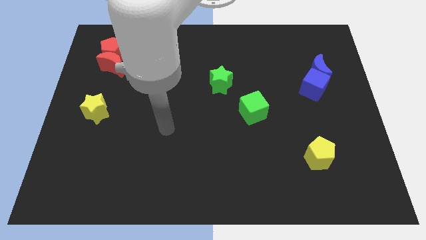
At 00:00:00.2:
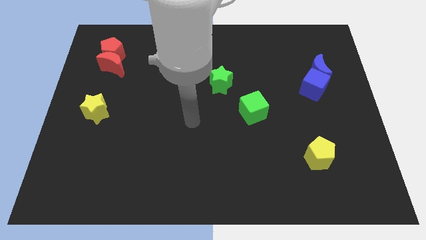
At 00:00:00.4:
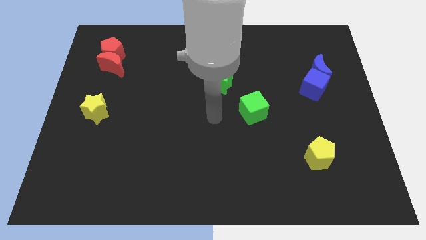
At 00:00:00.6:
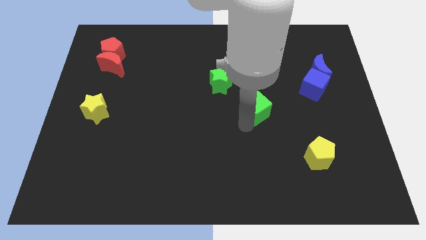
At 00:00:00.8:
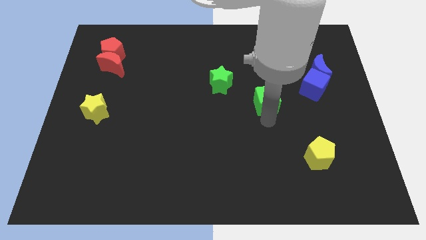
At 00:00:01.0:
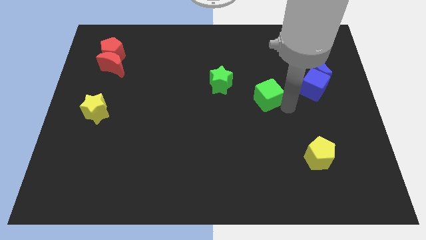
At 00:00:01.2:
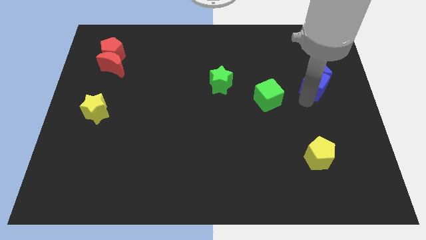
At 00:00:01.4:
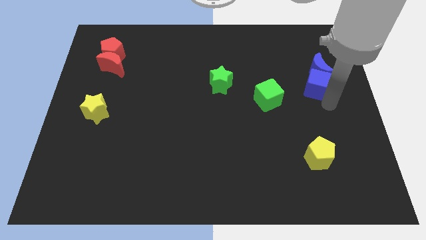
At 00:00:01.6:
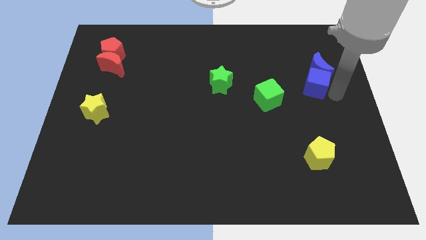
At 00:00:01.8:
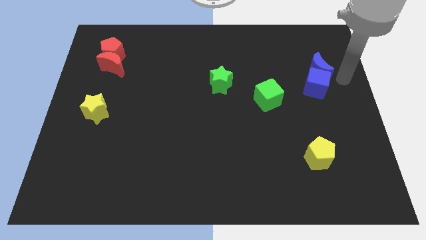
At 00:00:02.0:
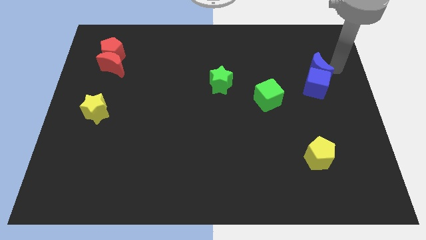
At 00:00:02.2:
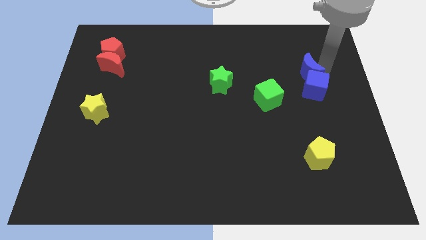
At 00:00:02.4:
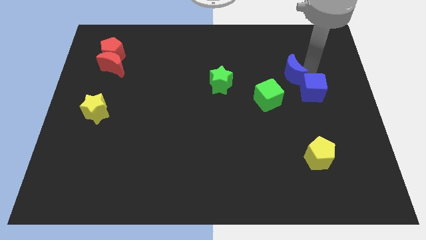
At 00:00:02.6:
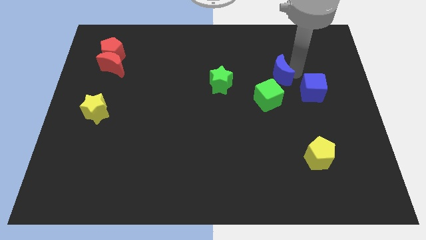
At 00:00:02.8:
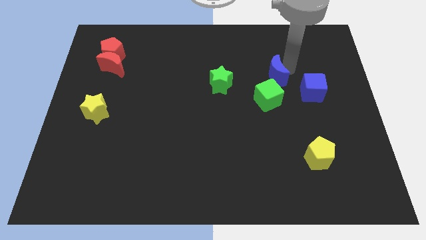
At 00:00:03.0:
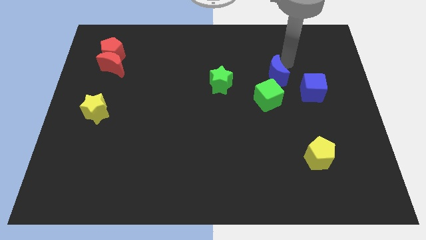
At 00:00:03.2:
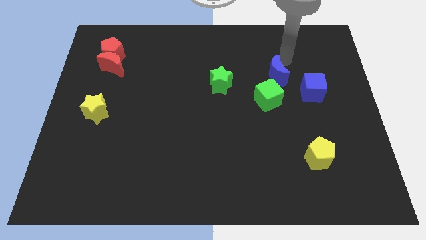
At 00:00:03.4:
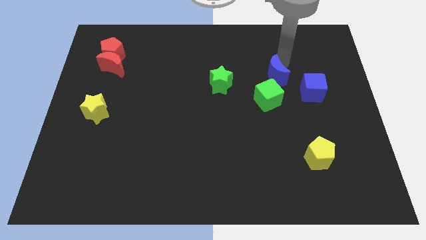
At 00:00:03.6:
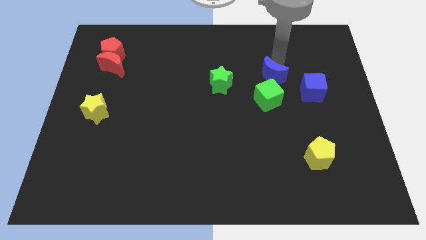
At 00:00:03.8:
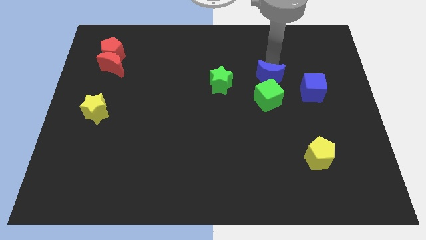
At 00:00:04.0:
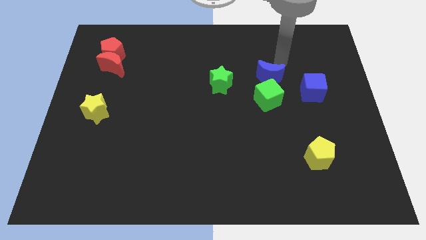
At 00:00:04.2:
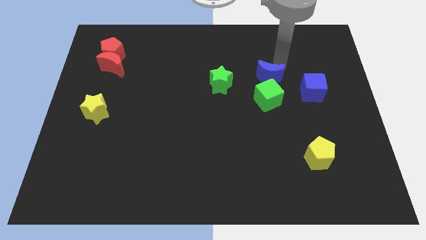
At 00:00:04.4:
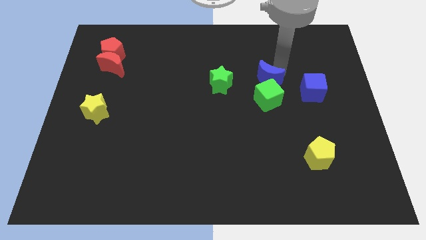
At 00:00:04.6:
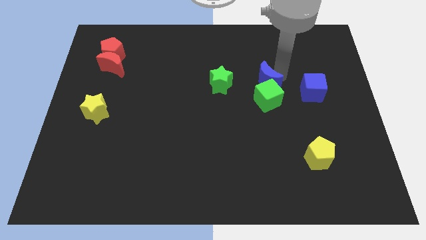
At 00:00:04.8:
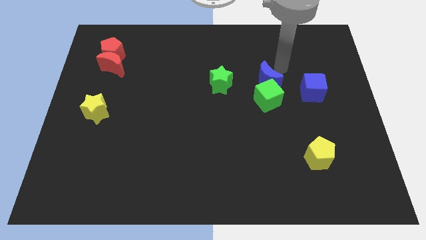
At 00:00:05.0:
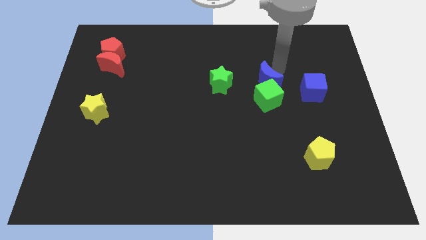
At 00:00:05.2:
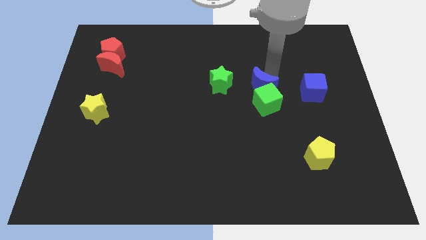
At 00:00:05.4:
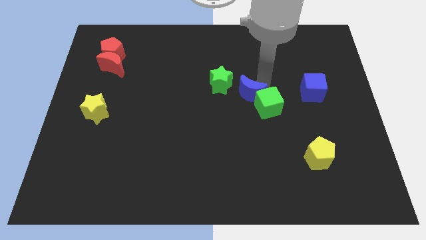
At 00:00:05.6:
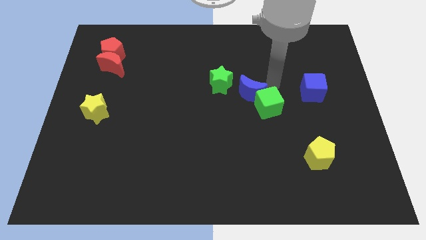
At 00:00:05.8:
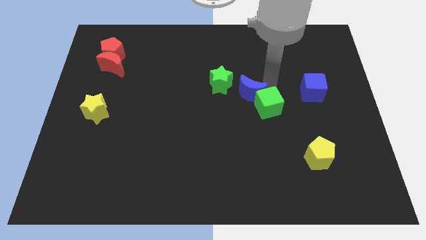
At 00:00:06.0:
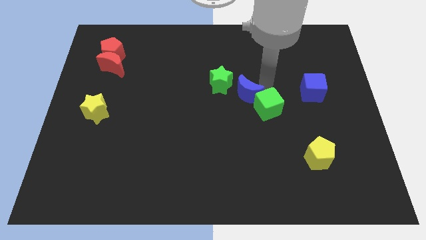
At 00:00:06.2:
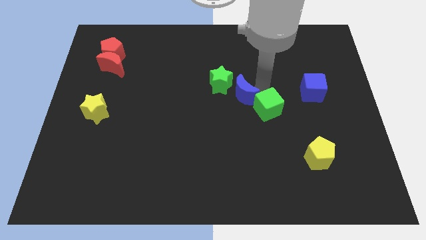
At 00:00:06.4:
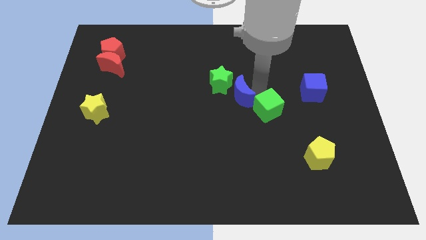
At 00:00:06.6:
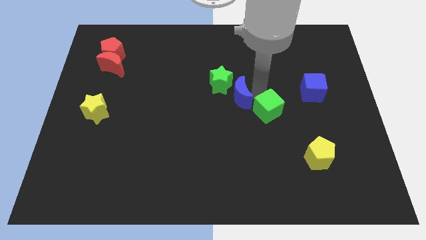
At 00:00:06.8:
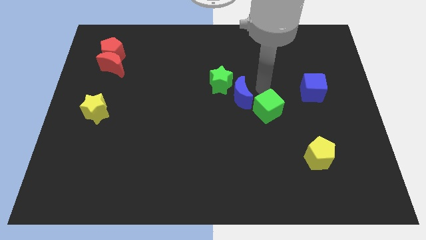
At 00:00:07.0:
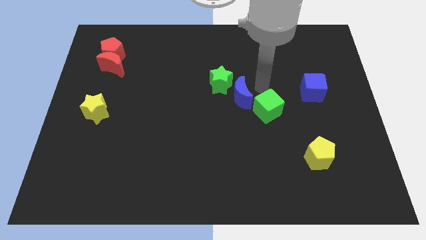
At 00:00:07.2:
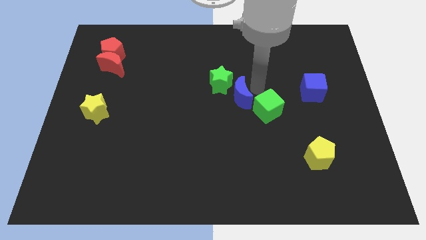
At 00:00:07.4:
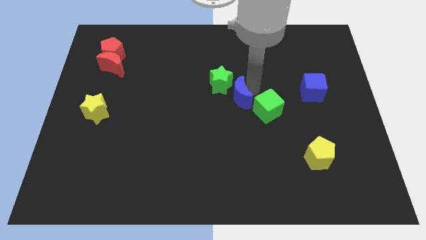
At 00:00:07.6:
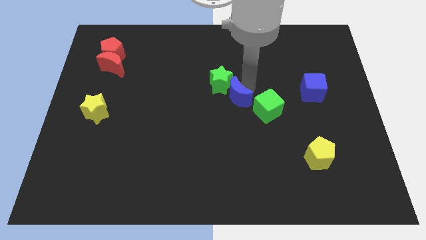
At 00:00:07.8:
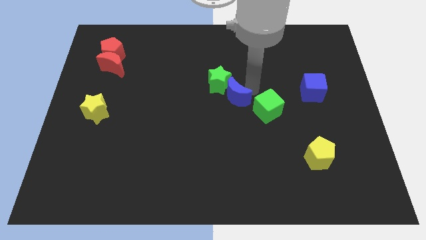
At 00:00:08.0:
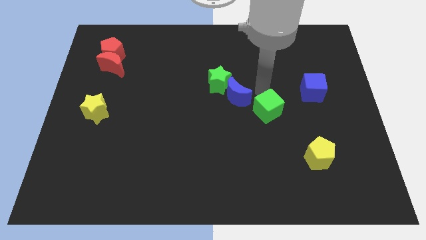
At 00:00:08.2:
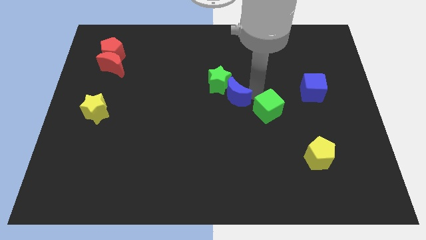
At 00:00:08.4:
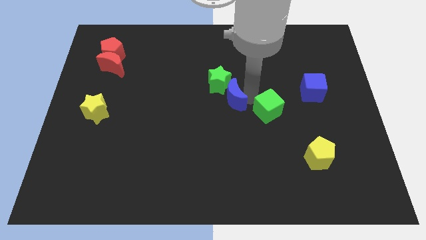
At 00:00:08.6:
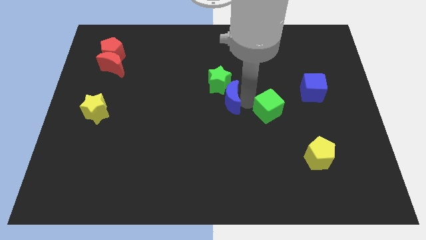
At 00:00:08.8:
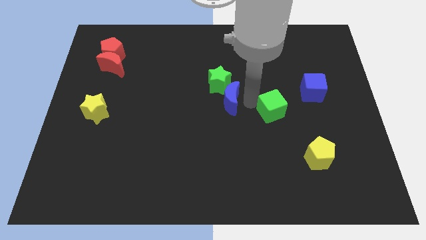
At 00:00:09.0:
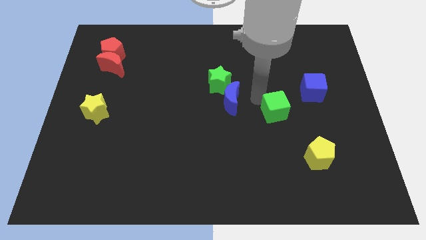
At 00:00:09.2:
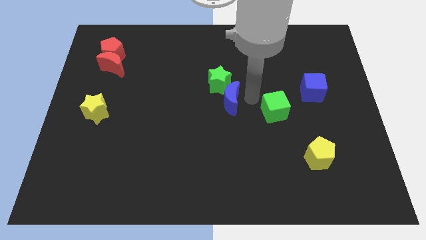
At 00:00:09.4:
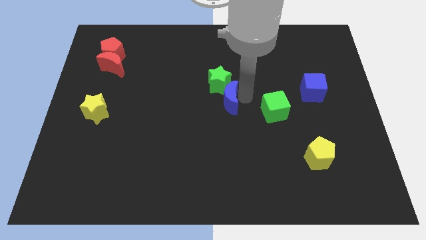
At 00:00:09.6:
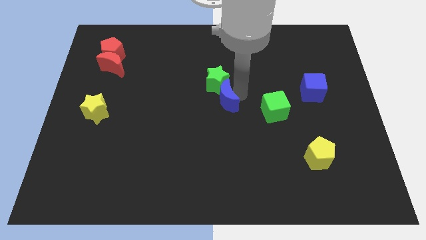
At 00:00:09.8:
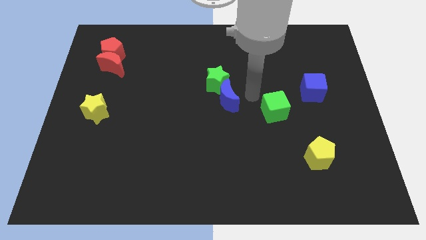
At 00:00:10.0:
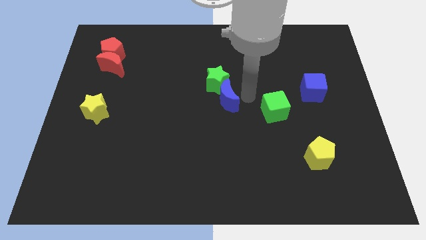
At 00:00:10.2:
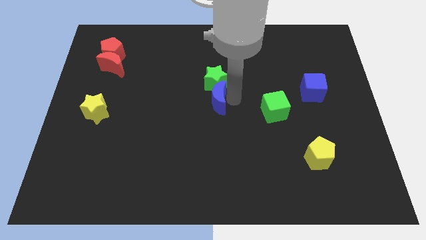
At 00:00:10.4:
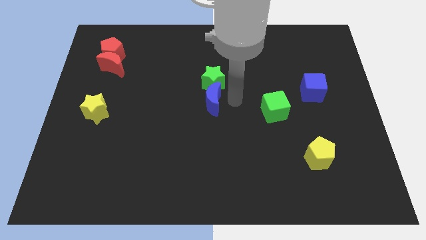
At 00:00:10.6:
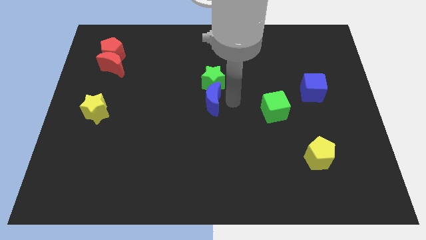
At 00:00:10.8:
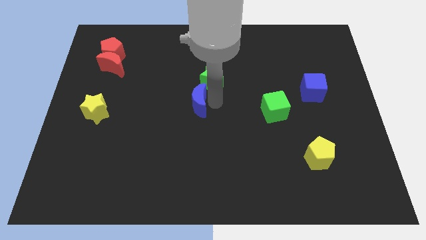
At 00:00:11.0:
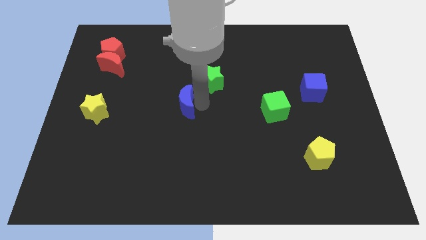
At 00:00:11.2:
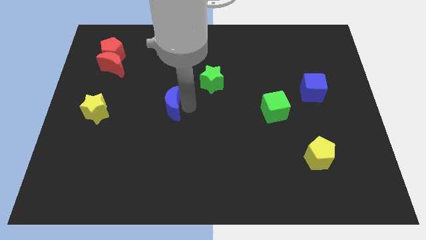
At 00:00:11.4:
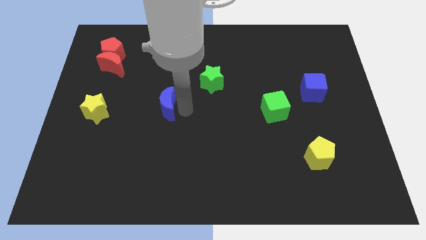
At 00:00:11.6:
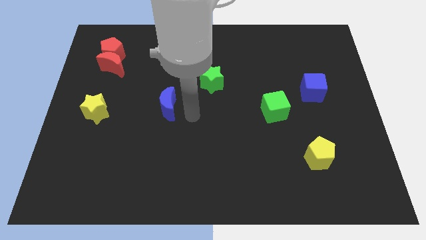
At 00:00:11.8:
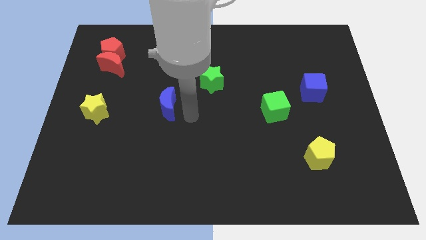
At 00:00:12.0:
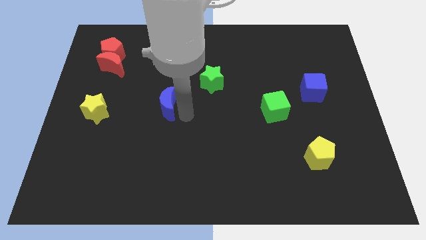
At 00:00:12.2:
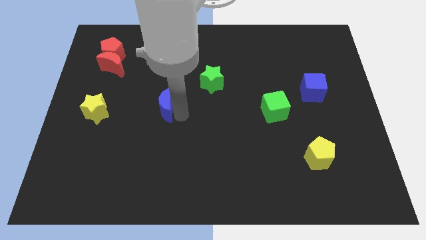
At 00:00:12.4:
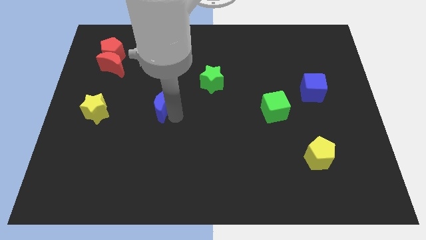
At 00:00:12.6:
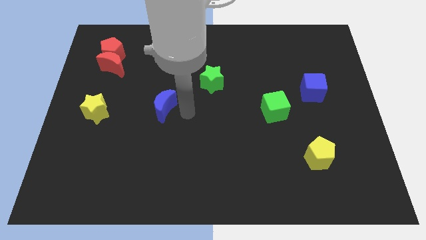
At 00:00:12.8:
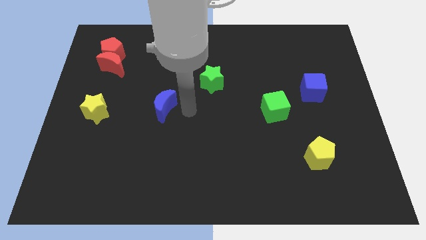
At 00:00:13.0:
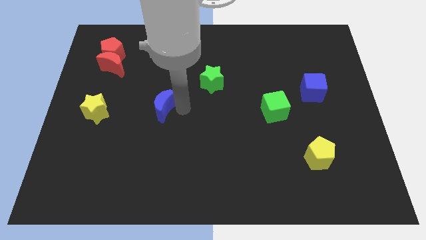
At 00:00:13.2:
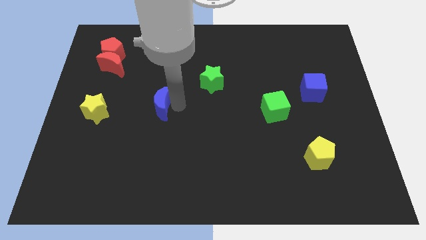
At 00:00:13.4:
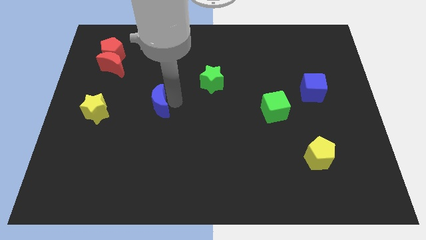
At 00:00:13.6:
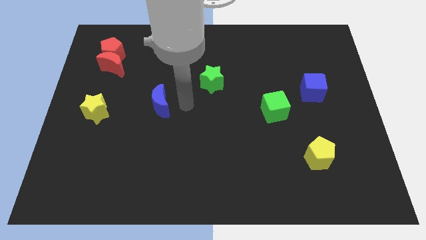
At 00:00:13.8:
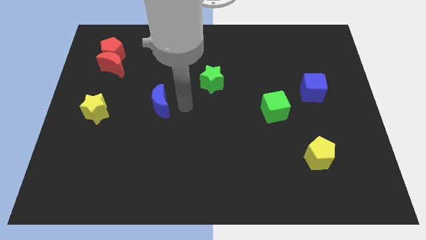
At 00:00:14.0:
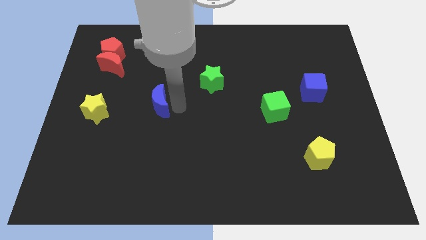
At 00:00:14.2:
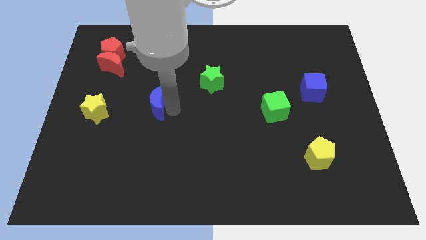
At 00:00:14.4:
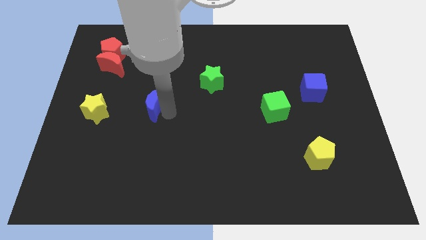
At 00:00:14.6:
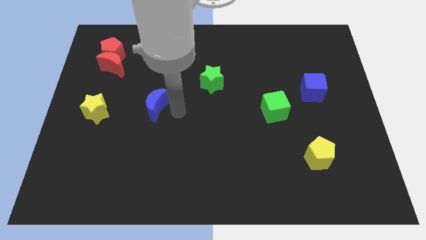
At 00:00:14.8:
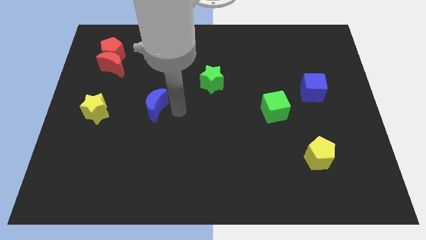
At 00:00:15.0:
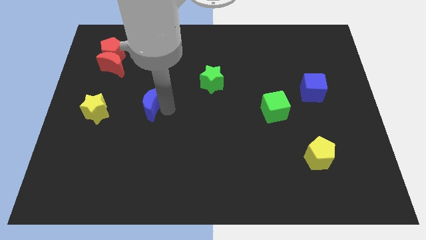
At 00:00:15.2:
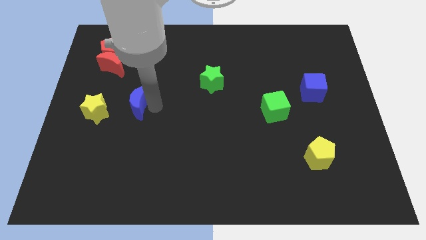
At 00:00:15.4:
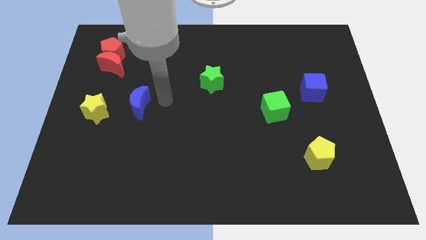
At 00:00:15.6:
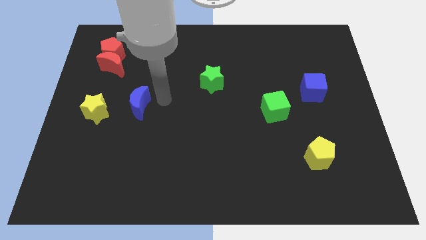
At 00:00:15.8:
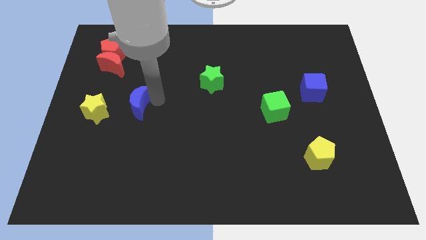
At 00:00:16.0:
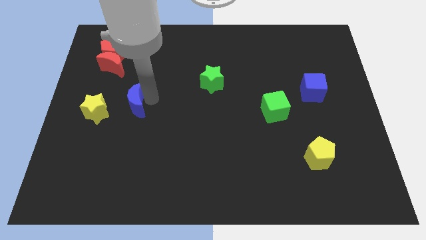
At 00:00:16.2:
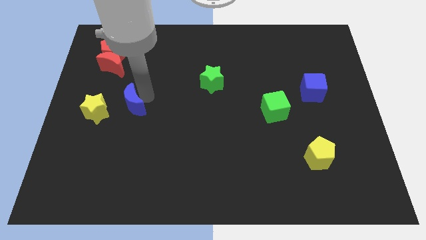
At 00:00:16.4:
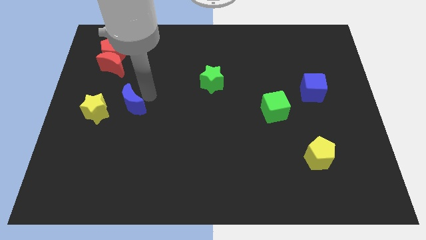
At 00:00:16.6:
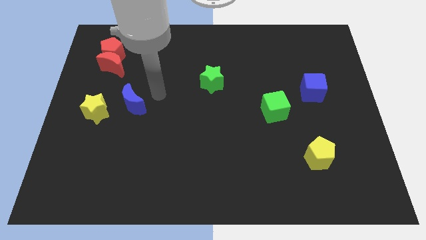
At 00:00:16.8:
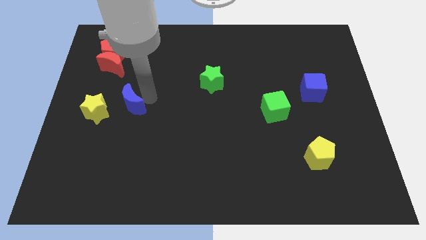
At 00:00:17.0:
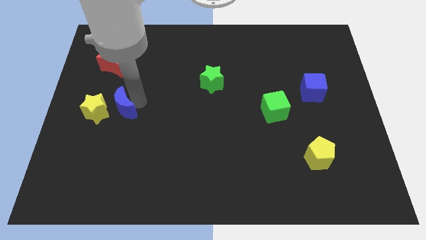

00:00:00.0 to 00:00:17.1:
push the blue moon close to the yellow star
